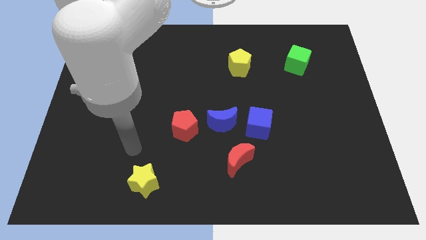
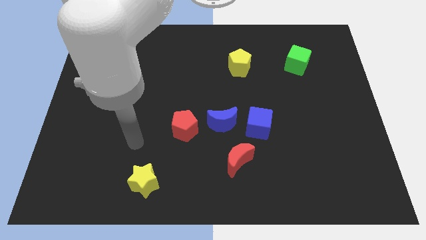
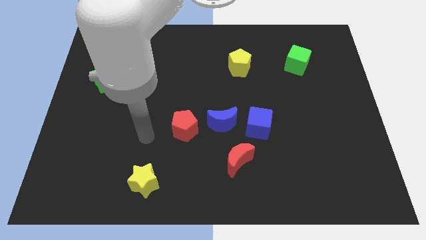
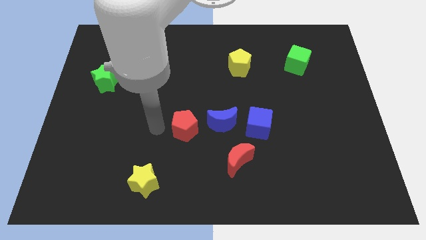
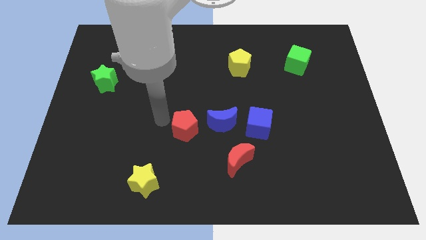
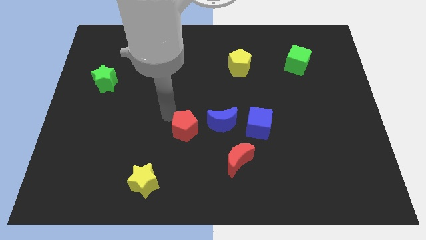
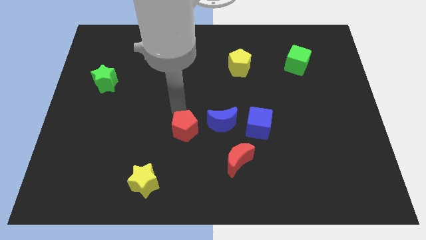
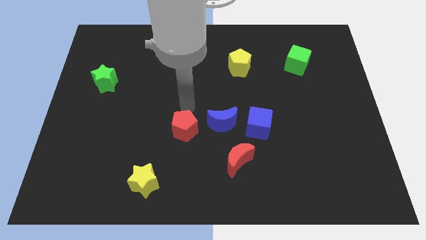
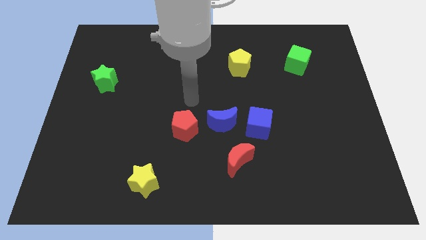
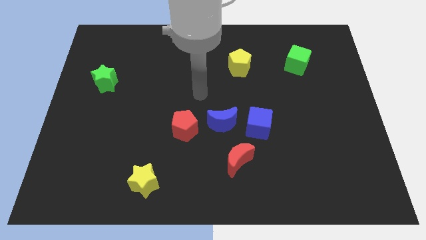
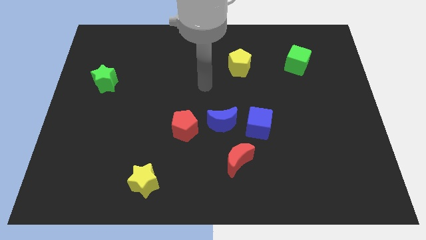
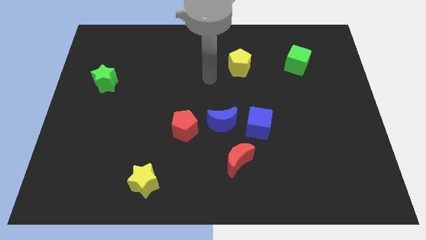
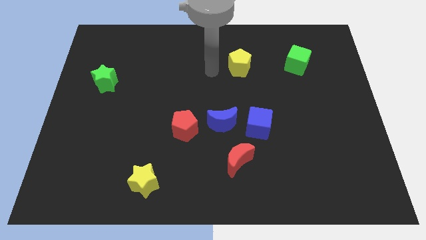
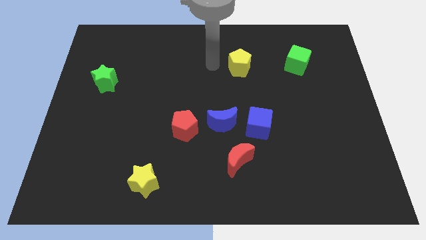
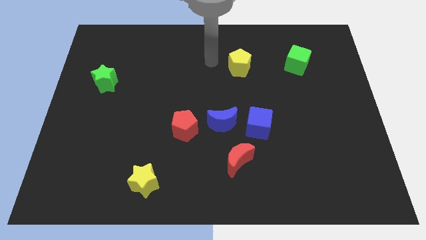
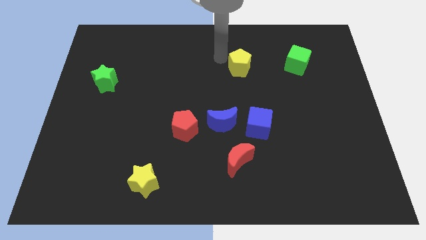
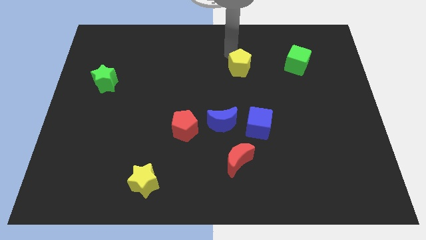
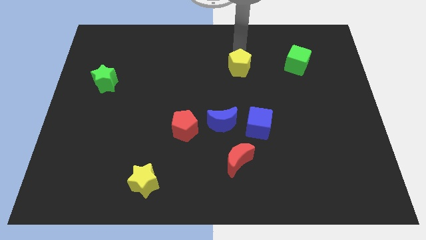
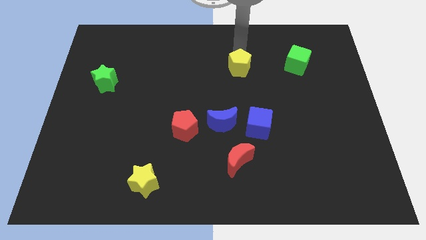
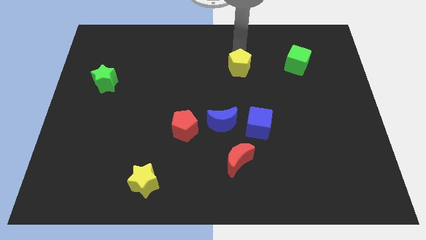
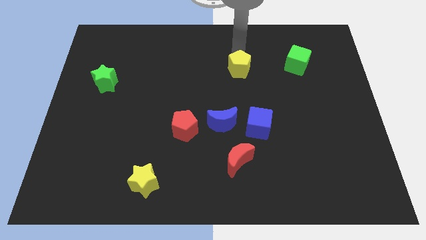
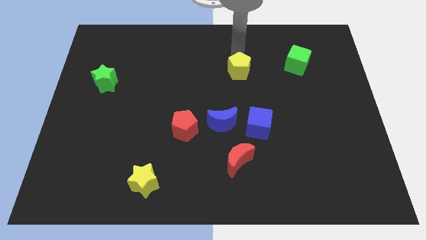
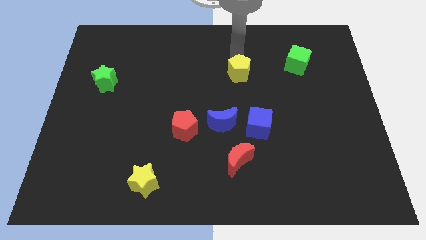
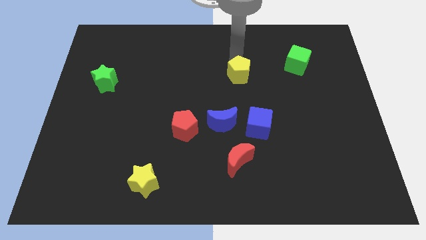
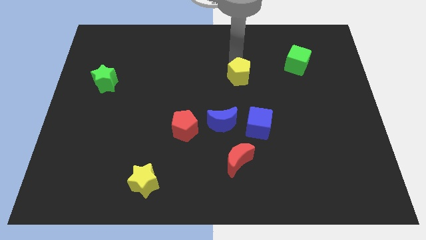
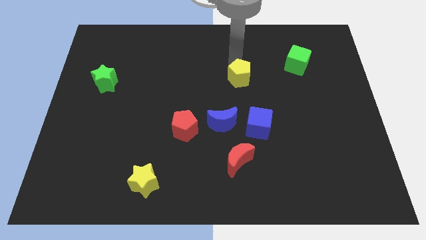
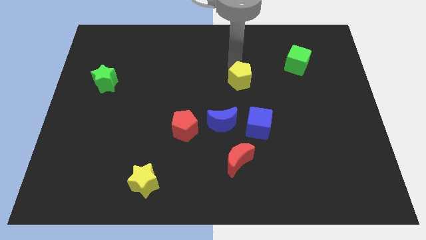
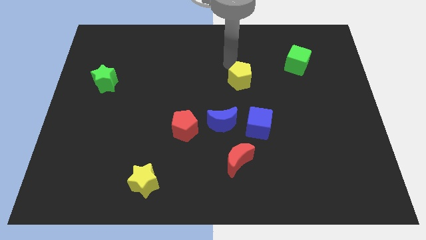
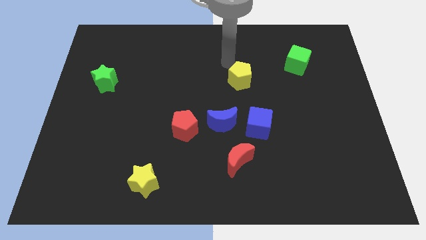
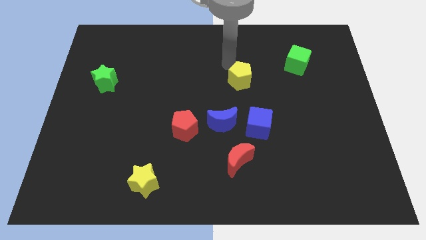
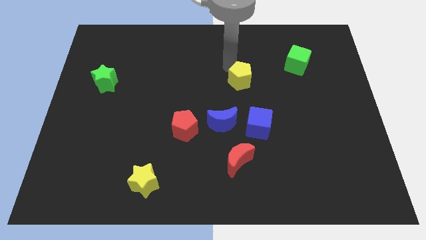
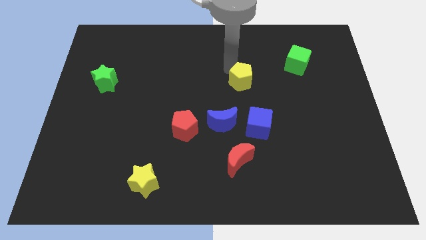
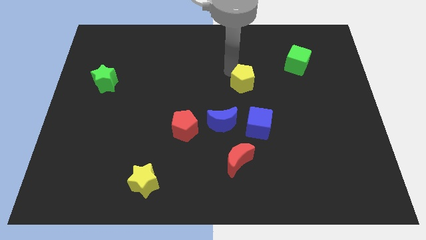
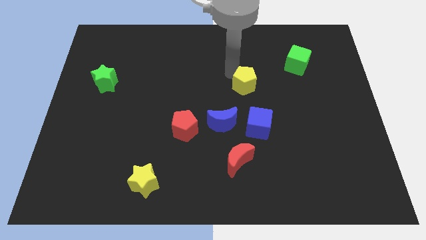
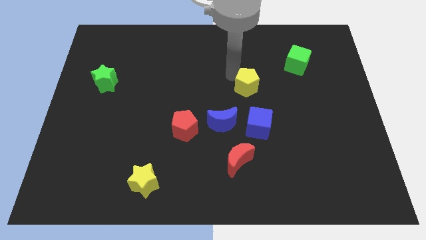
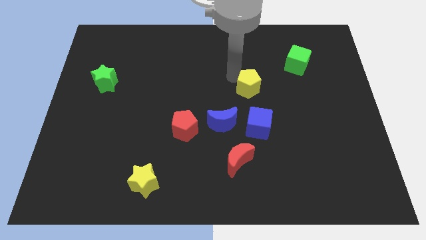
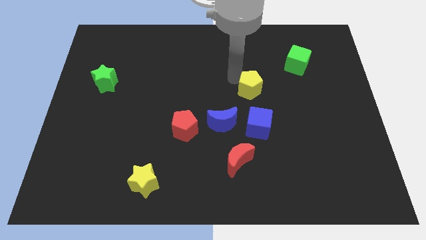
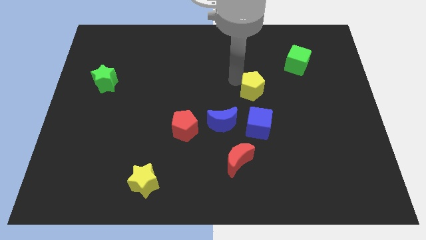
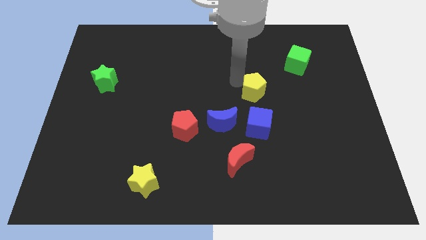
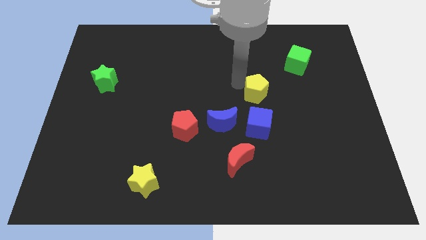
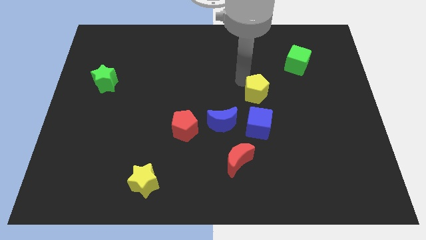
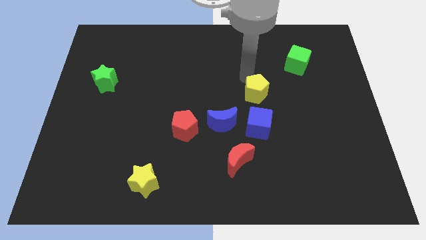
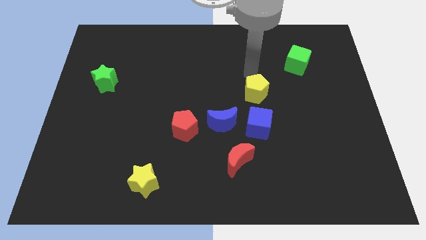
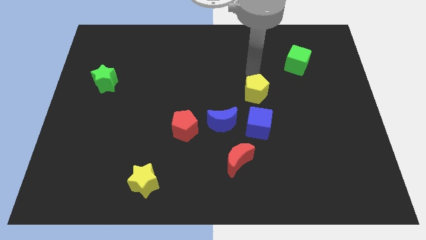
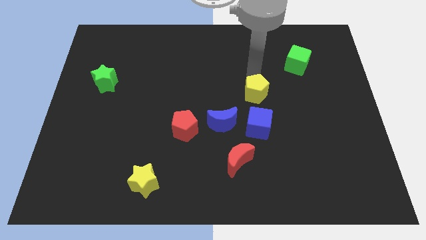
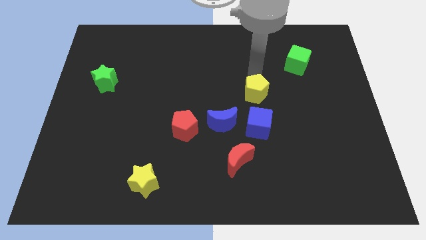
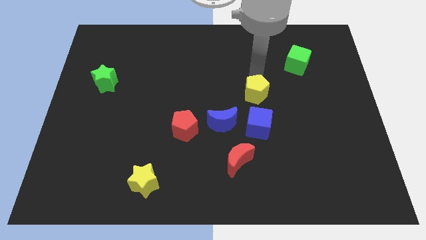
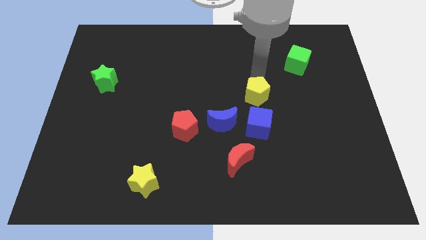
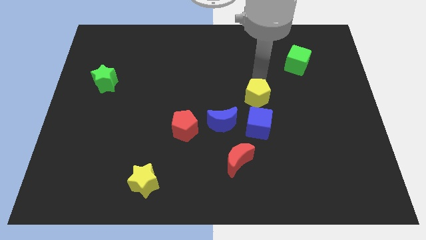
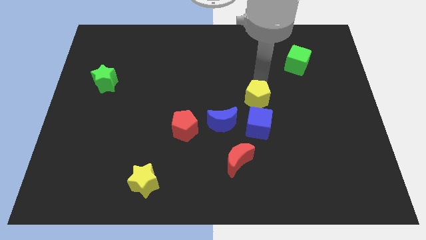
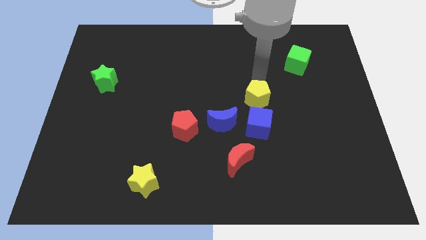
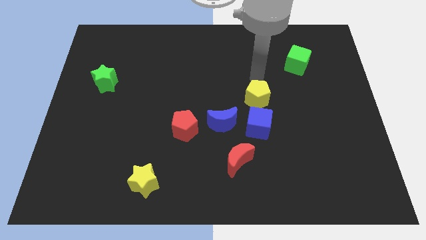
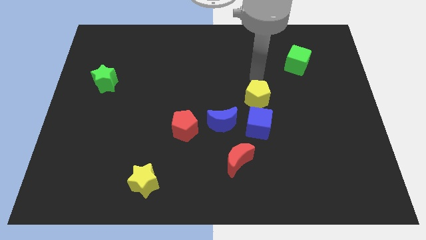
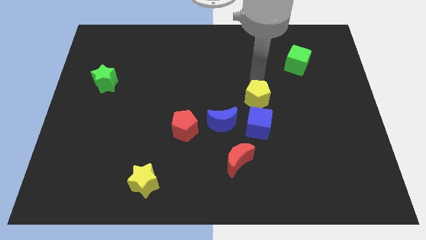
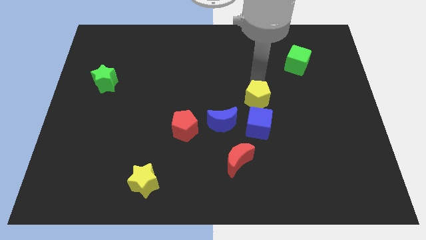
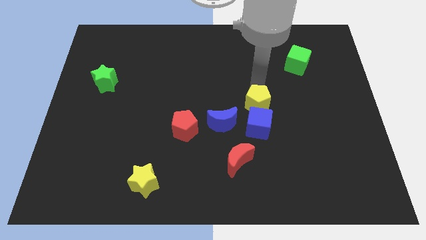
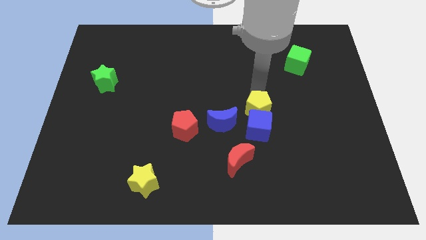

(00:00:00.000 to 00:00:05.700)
slide the yellow pentagon towards the blue cube

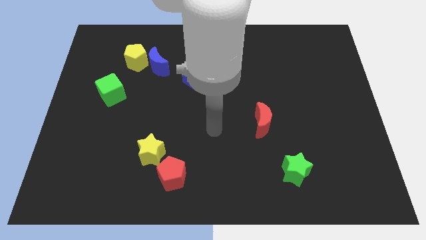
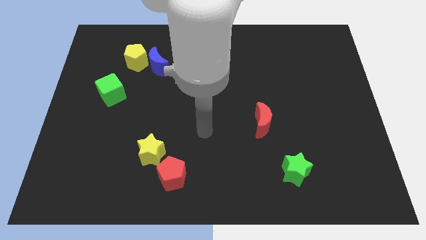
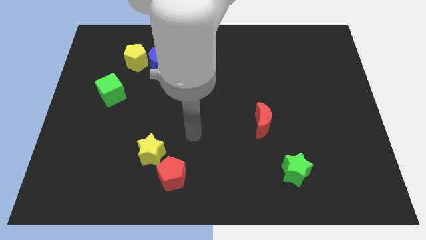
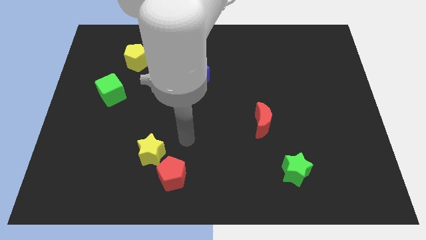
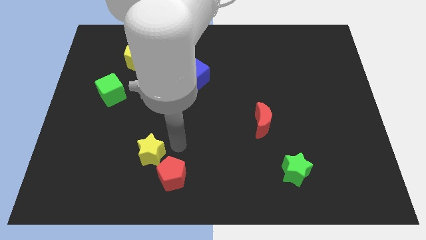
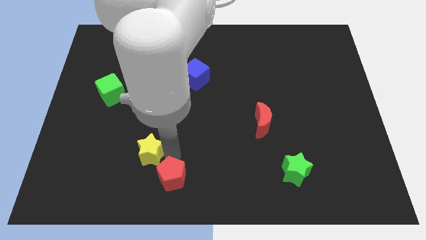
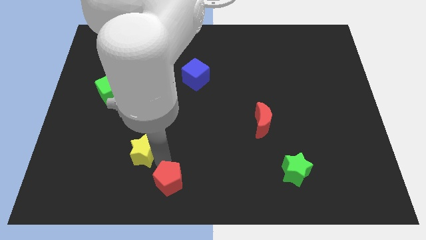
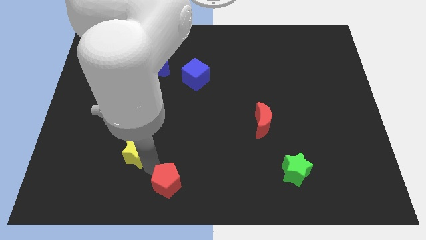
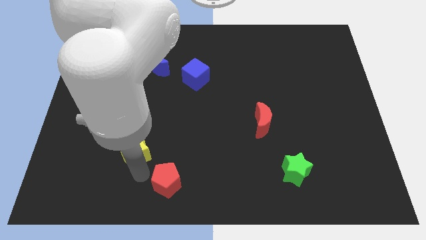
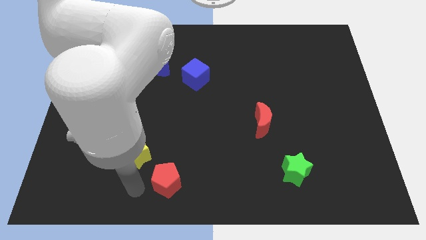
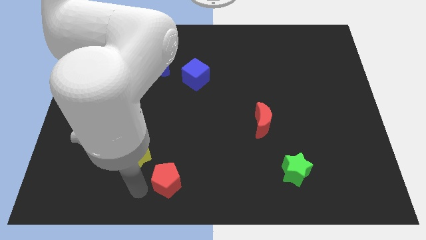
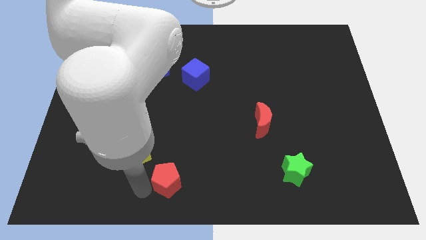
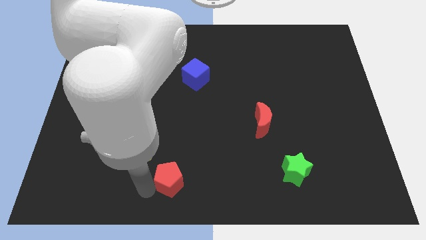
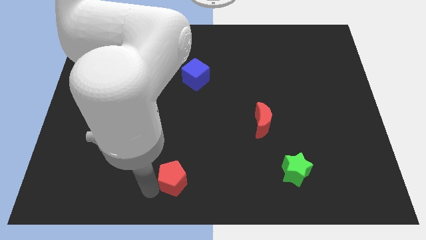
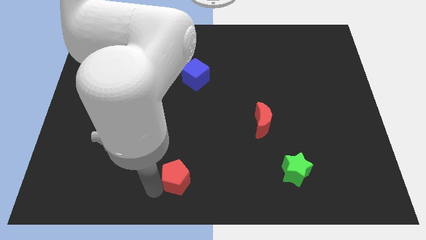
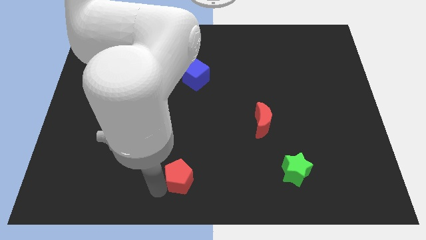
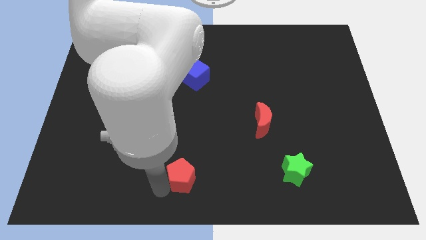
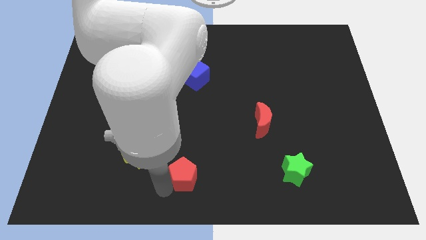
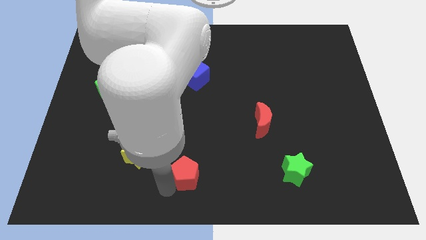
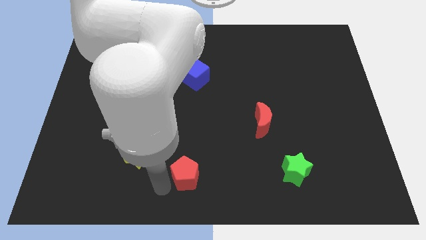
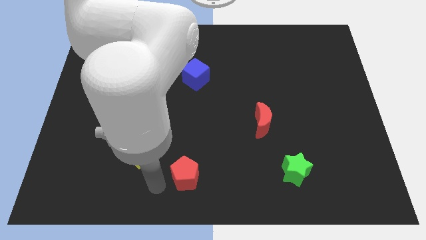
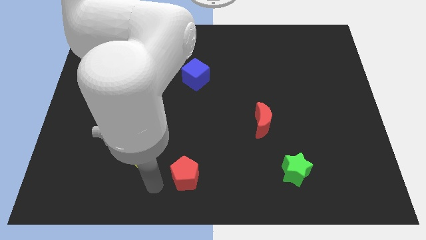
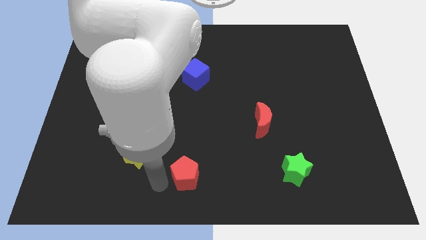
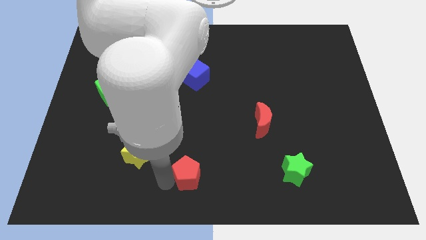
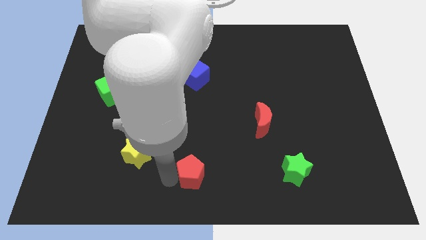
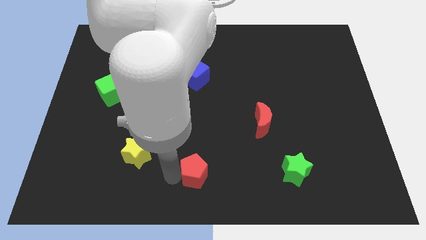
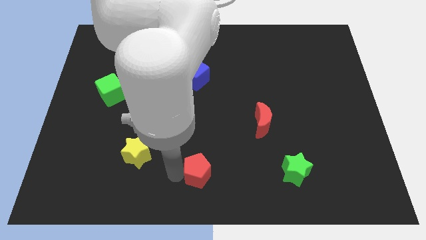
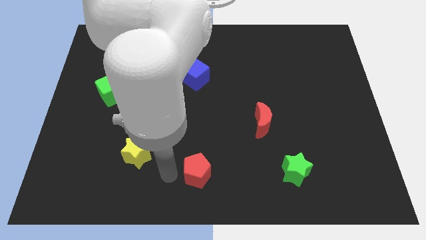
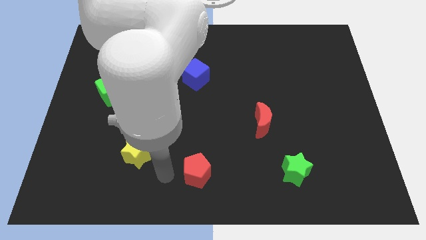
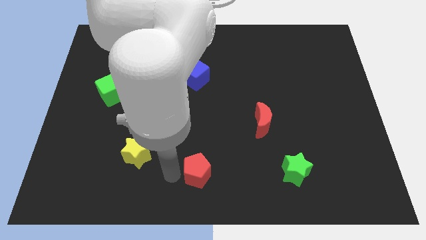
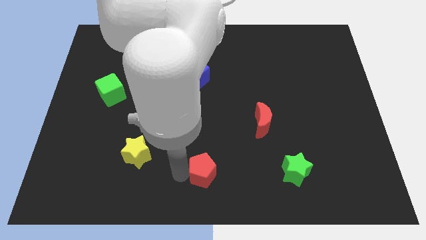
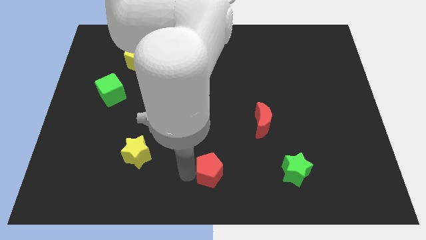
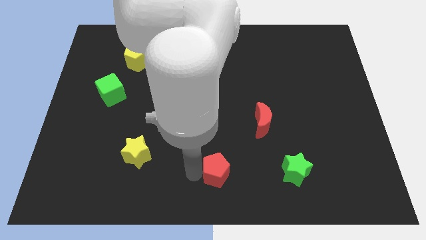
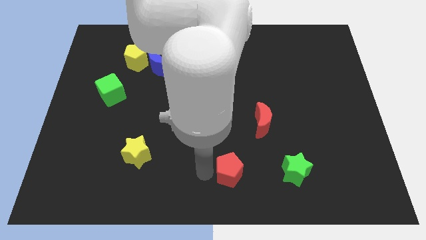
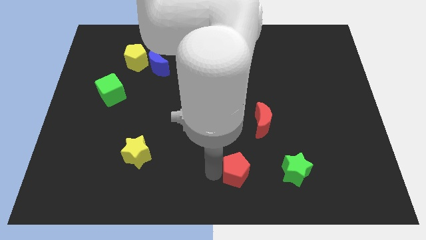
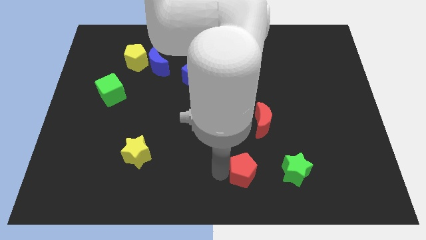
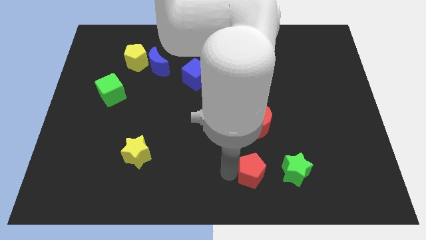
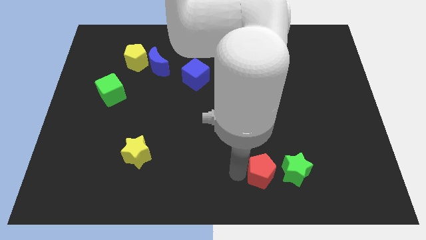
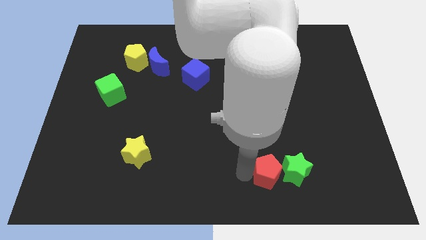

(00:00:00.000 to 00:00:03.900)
slide the red pentagon next to the green star
